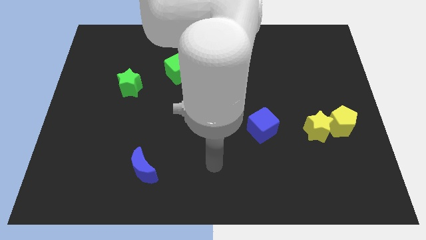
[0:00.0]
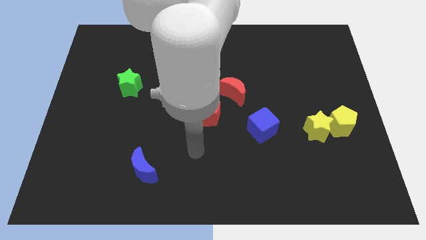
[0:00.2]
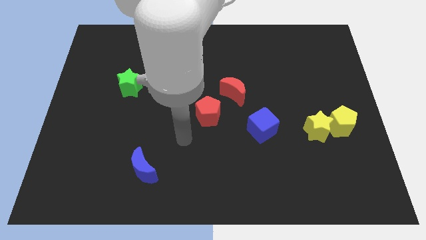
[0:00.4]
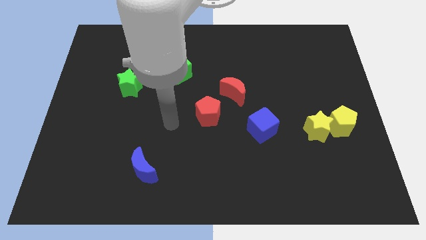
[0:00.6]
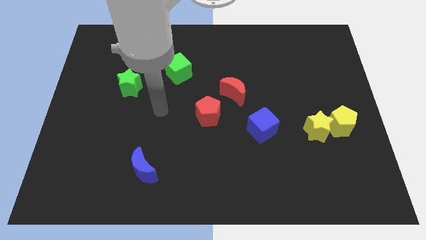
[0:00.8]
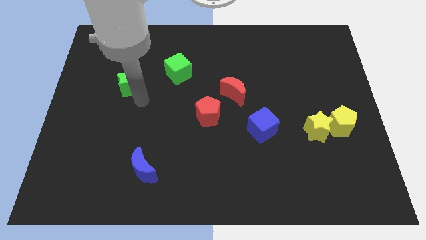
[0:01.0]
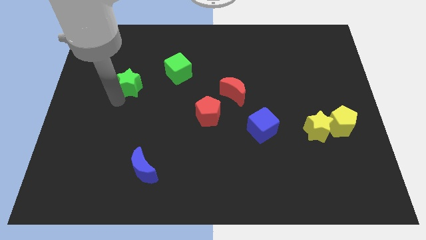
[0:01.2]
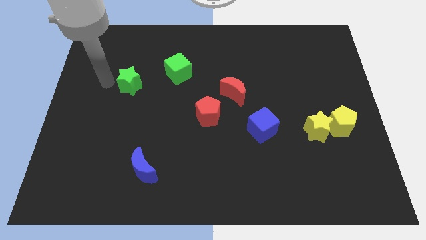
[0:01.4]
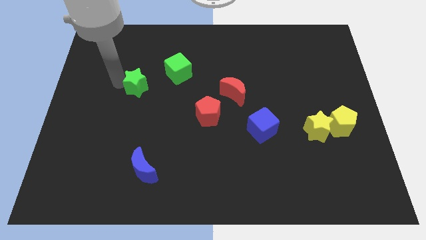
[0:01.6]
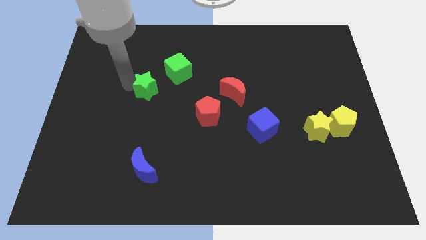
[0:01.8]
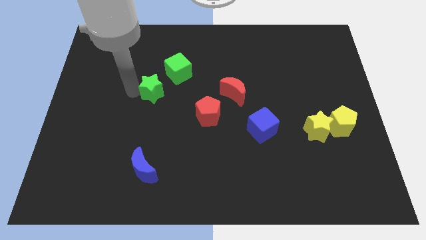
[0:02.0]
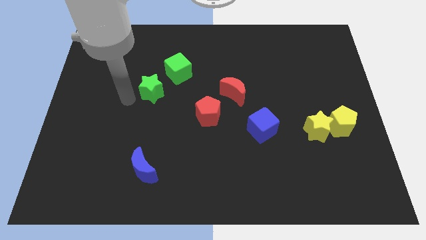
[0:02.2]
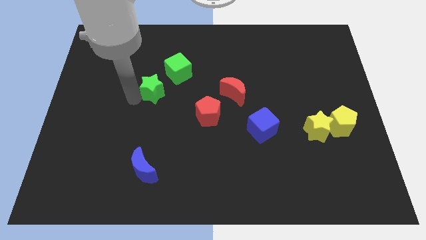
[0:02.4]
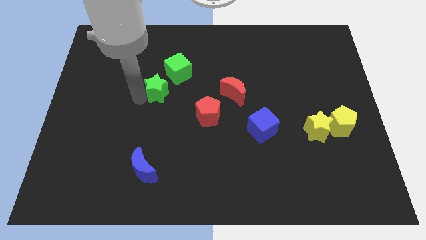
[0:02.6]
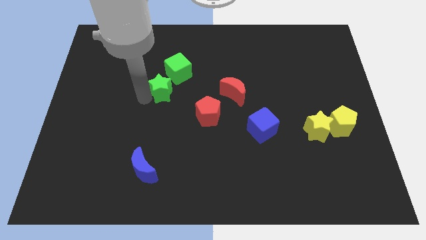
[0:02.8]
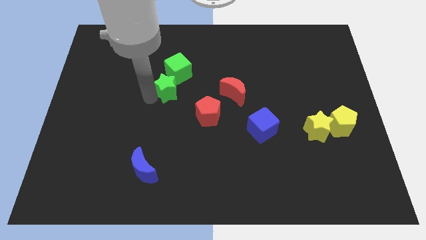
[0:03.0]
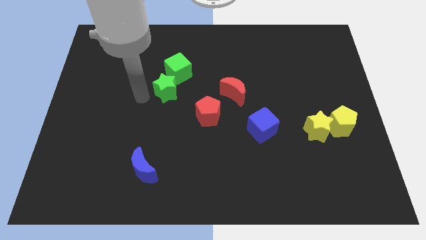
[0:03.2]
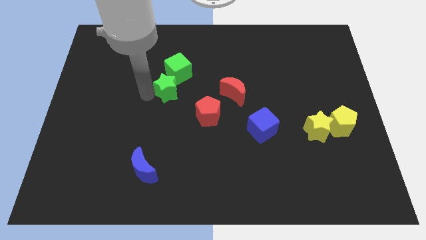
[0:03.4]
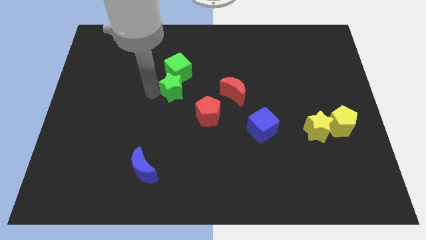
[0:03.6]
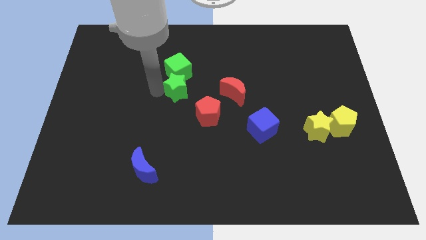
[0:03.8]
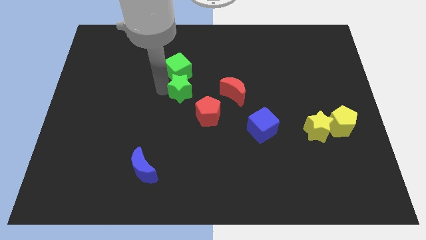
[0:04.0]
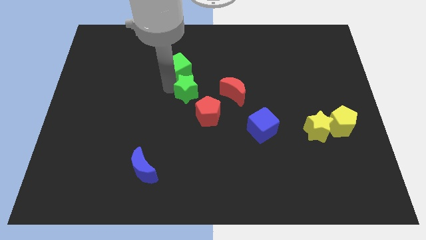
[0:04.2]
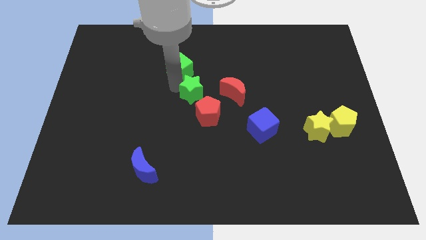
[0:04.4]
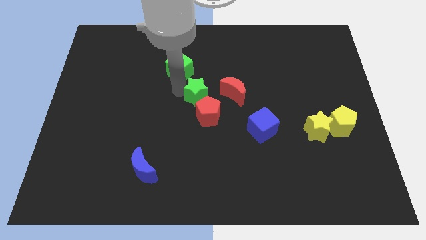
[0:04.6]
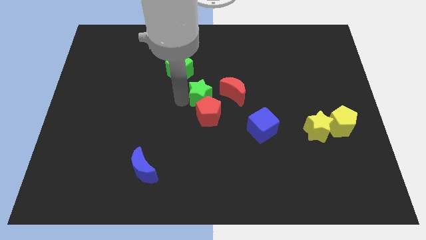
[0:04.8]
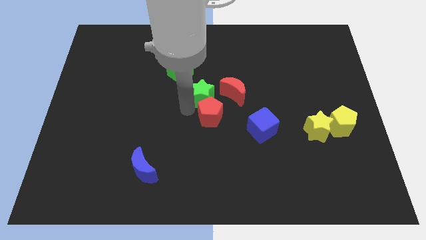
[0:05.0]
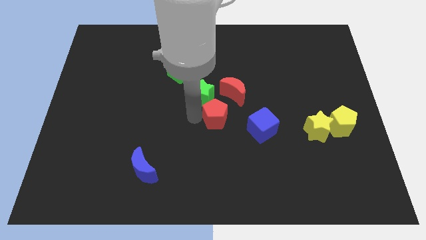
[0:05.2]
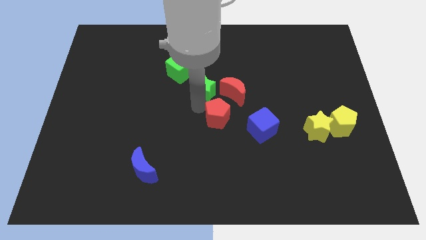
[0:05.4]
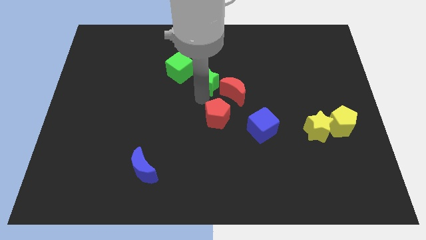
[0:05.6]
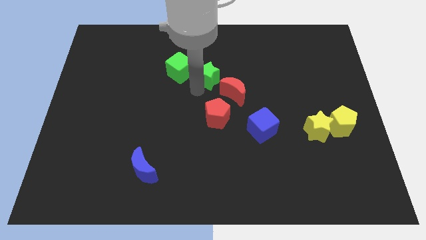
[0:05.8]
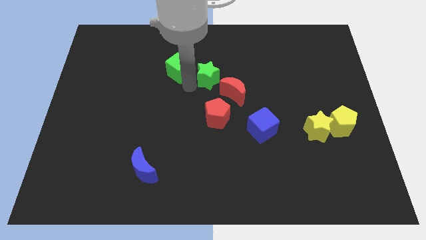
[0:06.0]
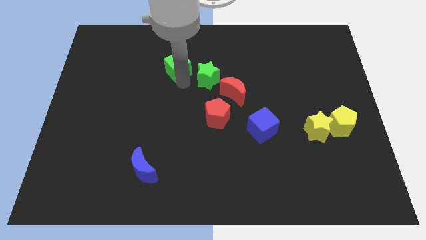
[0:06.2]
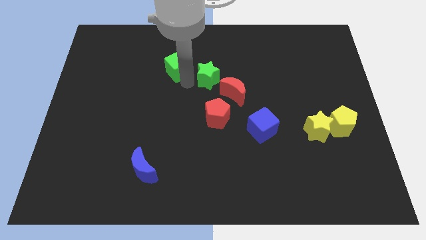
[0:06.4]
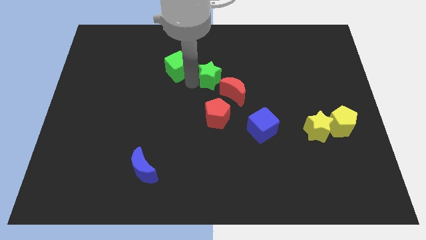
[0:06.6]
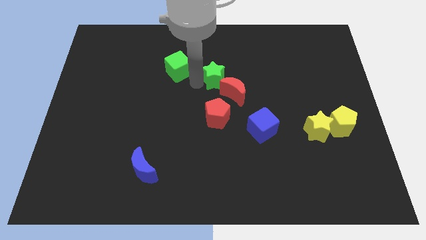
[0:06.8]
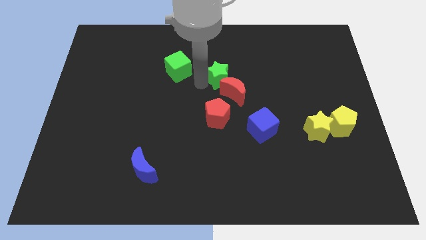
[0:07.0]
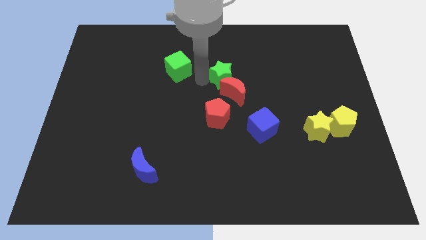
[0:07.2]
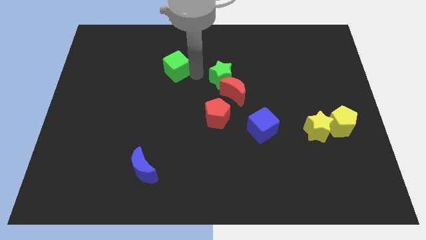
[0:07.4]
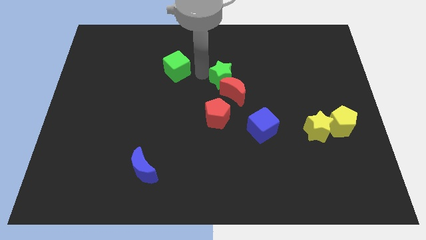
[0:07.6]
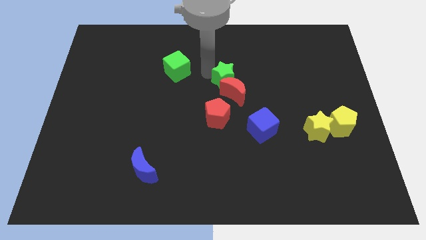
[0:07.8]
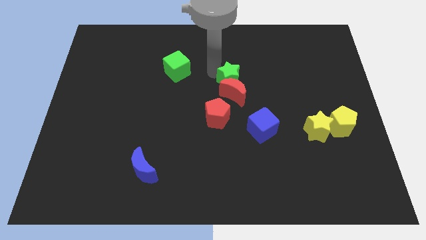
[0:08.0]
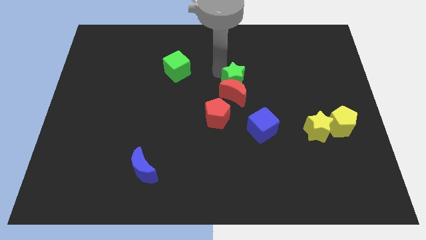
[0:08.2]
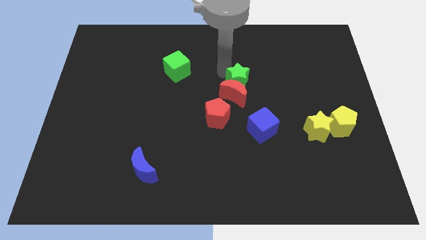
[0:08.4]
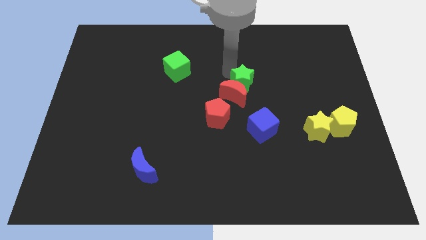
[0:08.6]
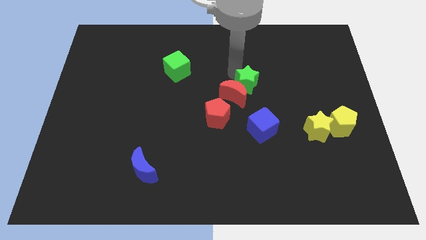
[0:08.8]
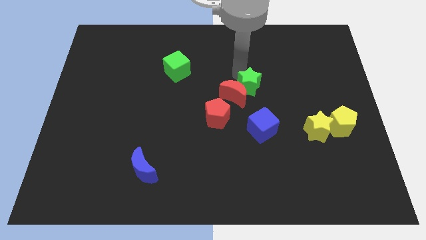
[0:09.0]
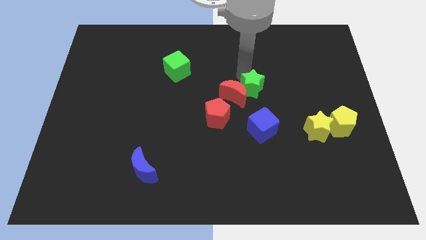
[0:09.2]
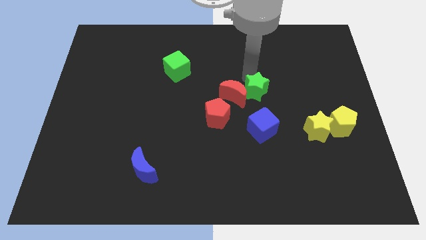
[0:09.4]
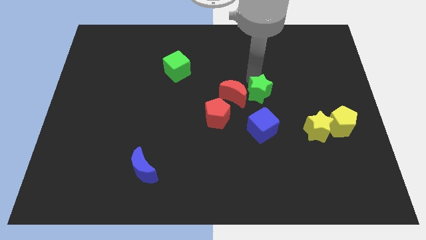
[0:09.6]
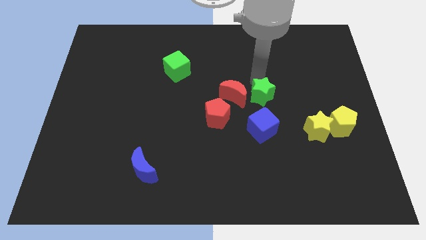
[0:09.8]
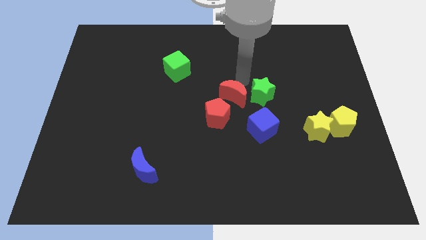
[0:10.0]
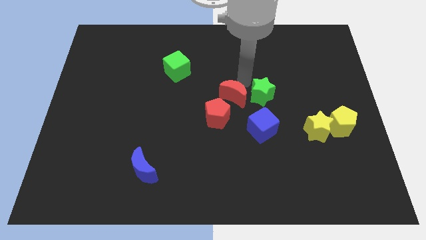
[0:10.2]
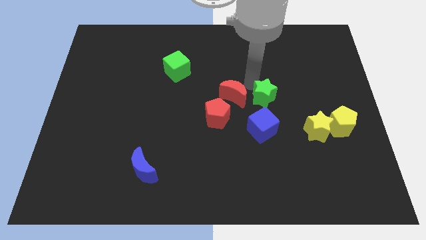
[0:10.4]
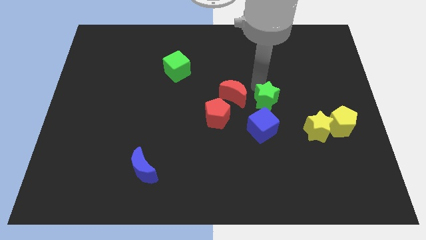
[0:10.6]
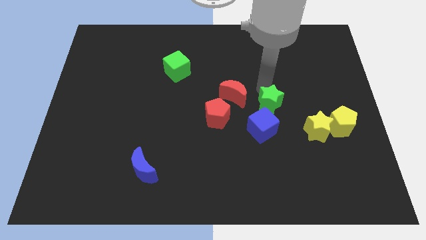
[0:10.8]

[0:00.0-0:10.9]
put the green star to the top left of the yellow star

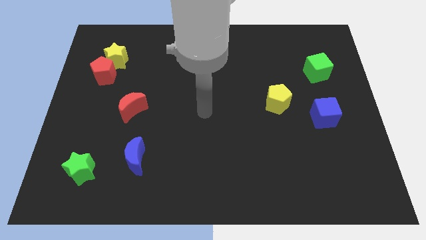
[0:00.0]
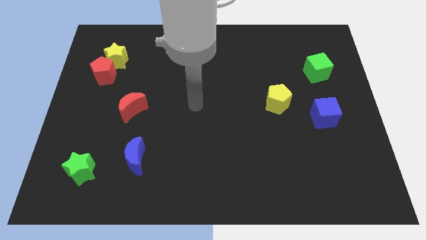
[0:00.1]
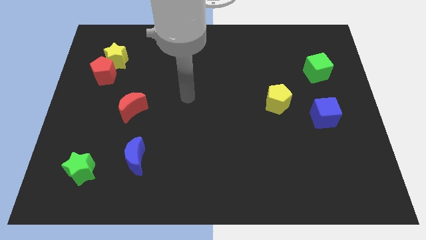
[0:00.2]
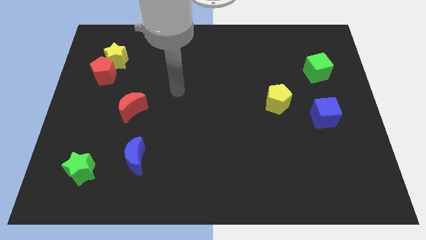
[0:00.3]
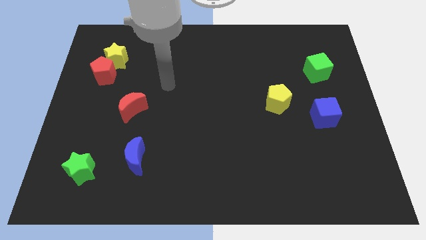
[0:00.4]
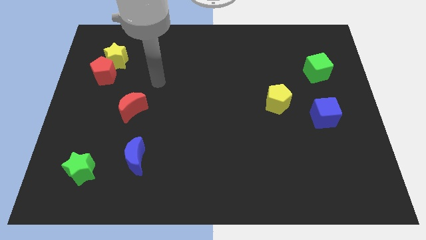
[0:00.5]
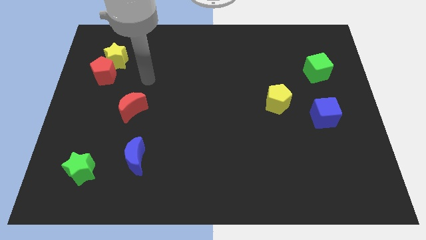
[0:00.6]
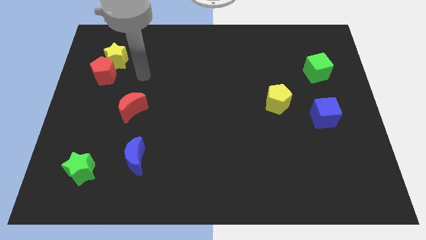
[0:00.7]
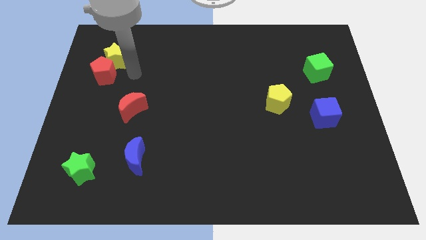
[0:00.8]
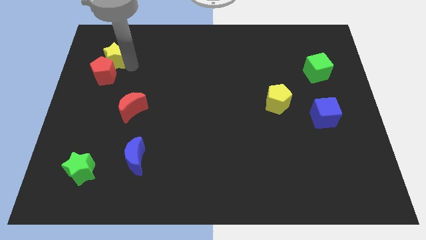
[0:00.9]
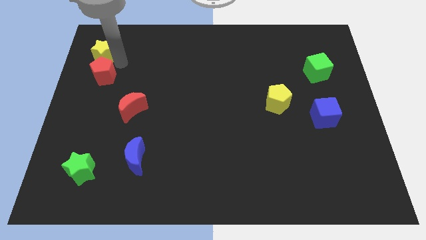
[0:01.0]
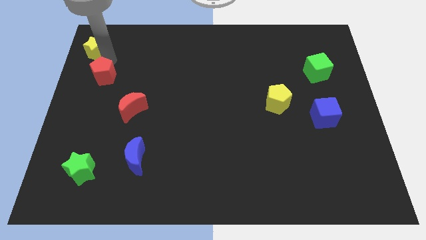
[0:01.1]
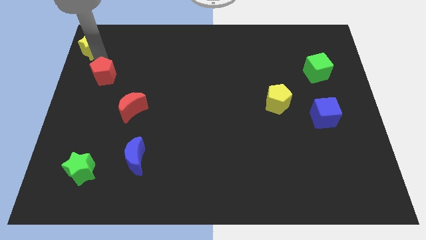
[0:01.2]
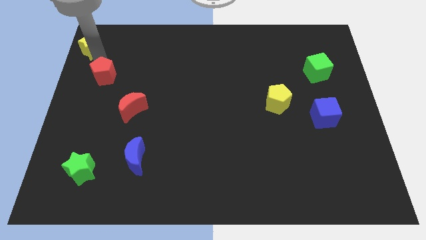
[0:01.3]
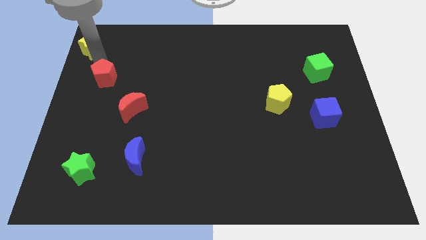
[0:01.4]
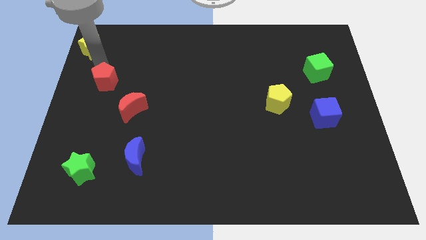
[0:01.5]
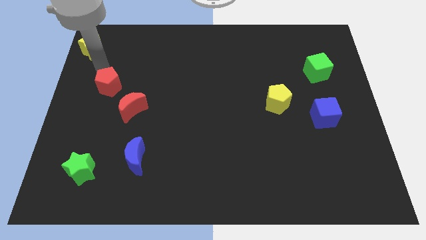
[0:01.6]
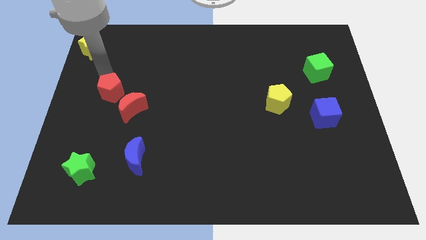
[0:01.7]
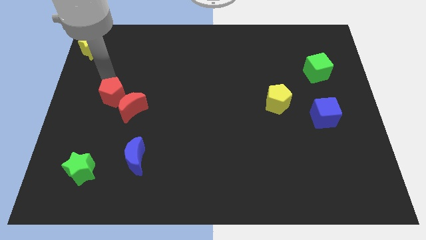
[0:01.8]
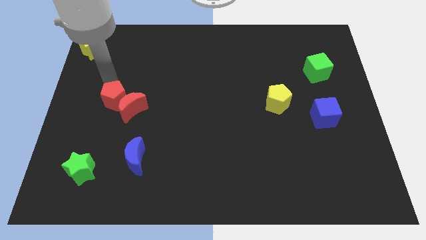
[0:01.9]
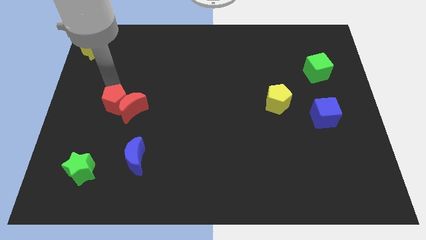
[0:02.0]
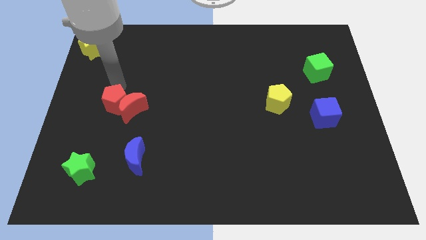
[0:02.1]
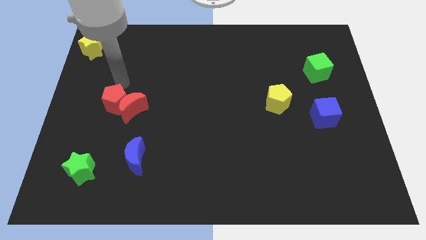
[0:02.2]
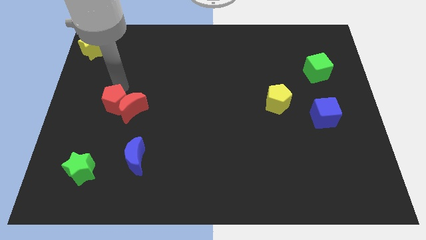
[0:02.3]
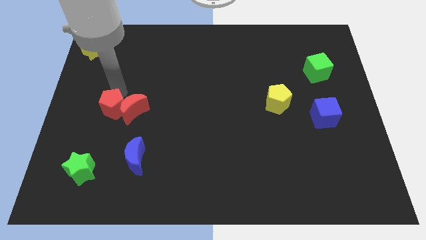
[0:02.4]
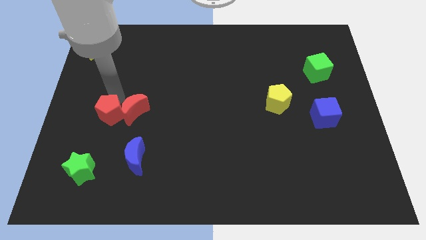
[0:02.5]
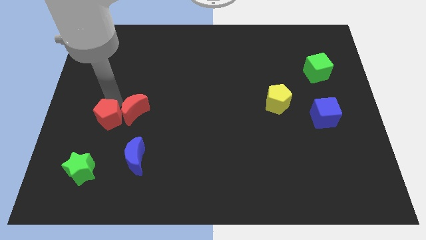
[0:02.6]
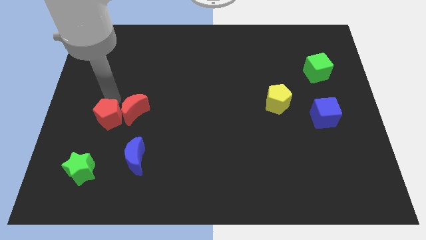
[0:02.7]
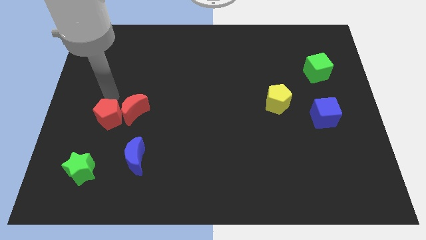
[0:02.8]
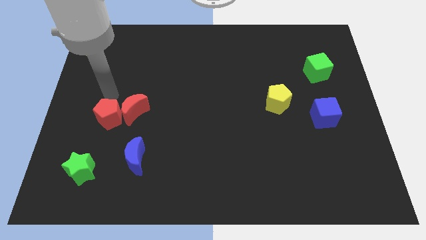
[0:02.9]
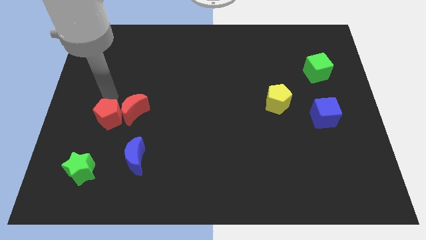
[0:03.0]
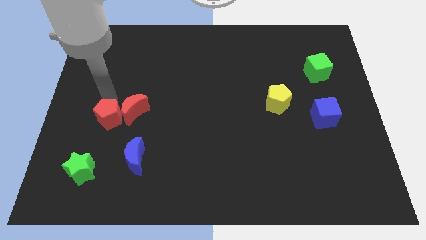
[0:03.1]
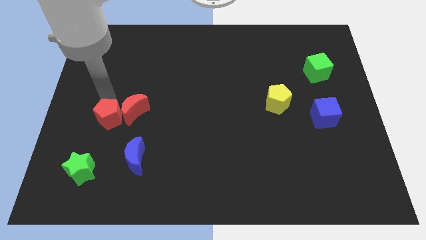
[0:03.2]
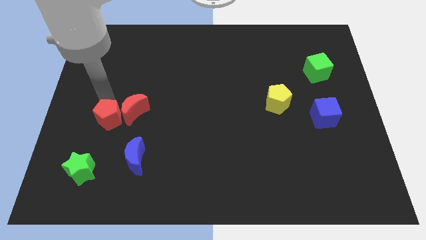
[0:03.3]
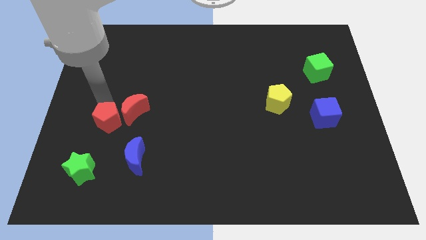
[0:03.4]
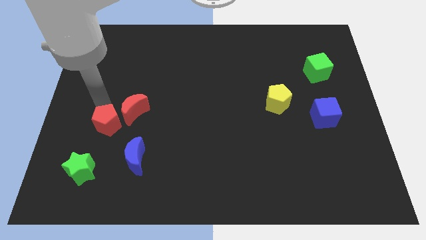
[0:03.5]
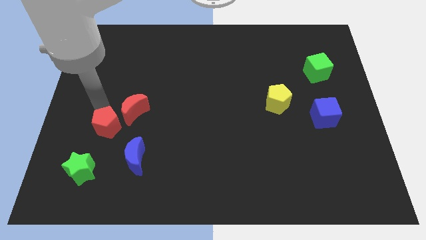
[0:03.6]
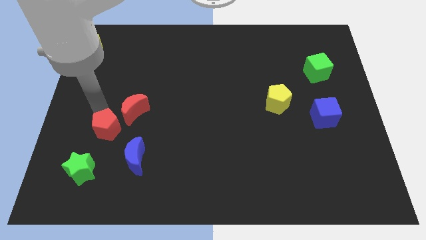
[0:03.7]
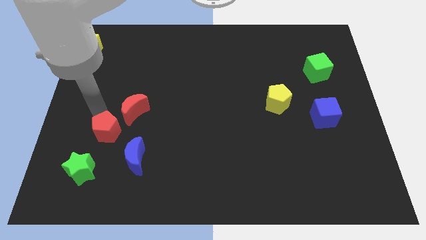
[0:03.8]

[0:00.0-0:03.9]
push the red pentagon to the top right of the green star
